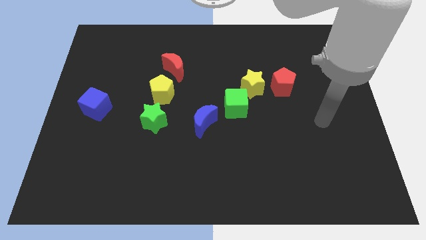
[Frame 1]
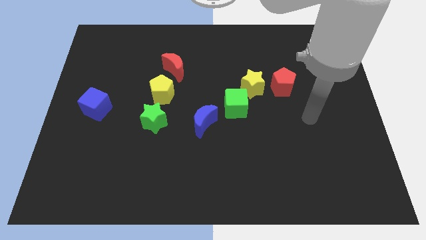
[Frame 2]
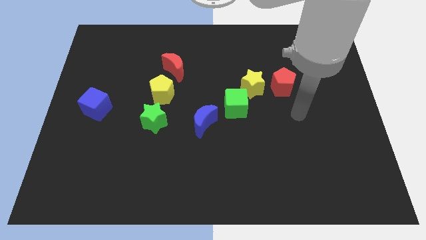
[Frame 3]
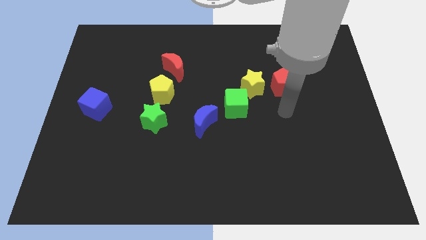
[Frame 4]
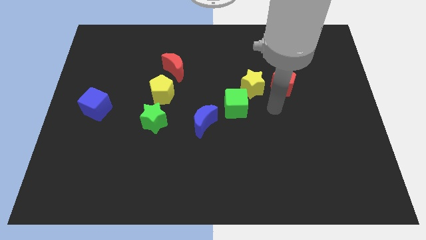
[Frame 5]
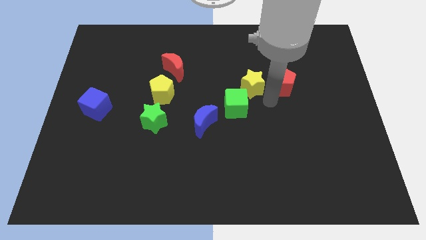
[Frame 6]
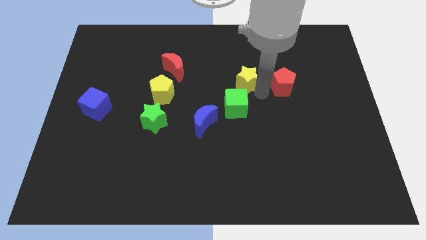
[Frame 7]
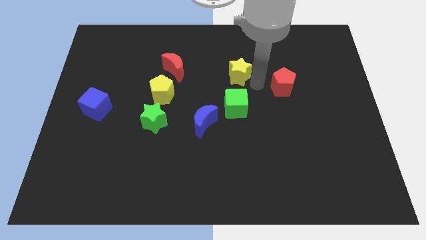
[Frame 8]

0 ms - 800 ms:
pull the red pentagon apart from the yellow star

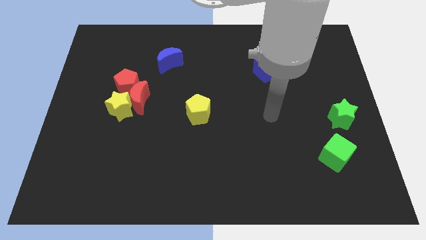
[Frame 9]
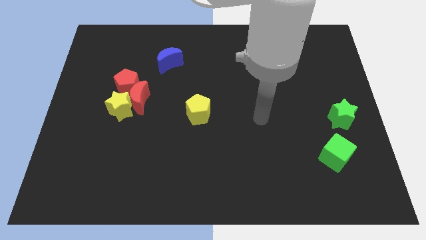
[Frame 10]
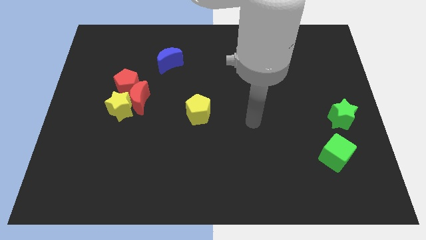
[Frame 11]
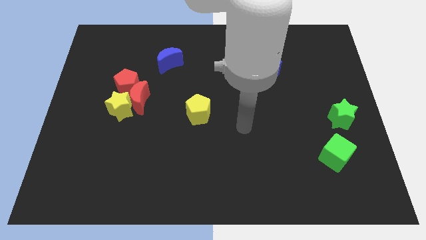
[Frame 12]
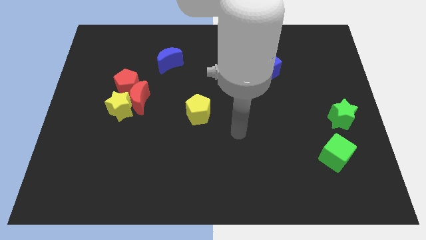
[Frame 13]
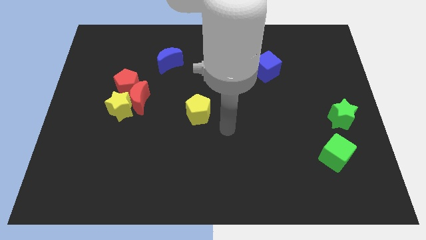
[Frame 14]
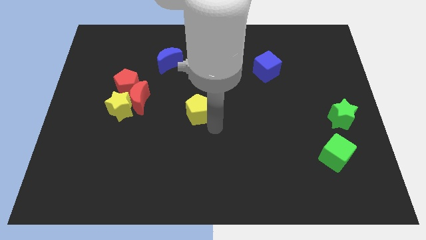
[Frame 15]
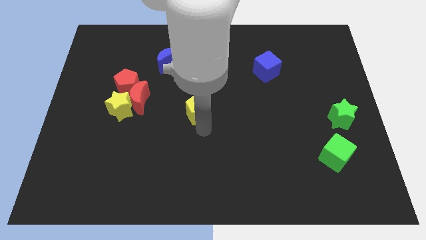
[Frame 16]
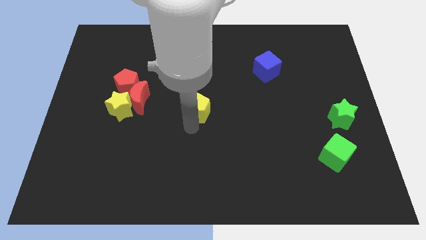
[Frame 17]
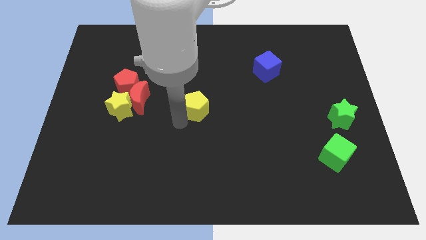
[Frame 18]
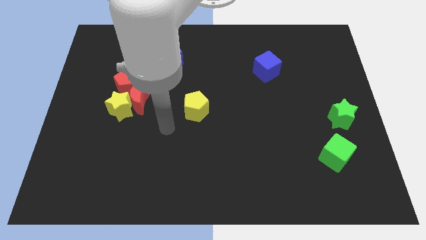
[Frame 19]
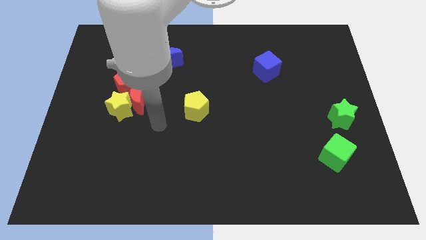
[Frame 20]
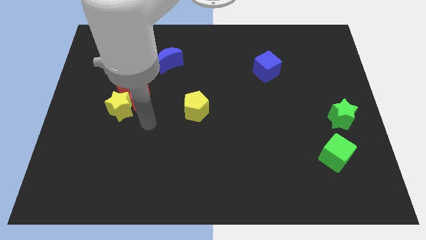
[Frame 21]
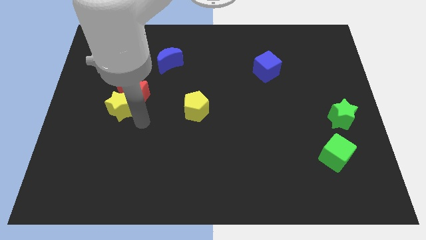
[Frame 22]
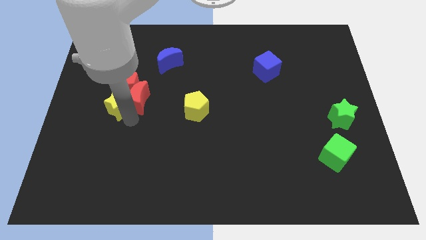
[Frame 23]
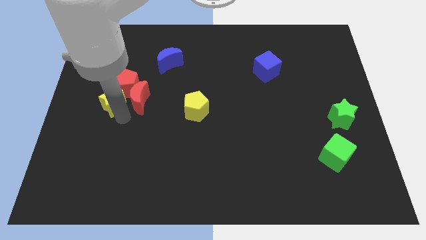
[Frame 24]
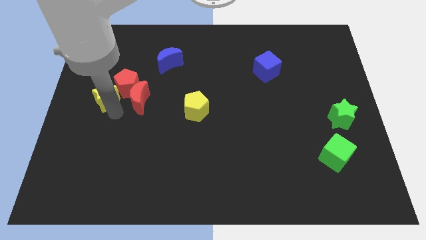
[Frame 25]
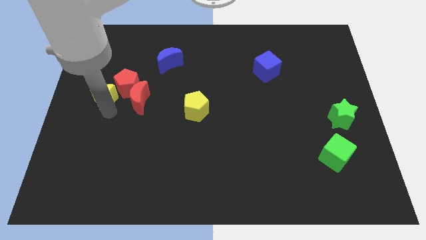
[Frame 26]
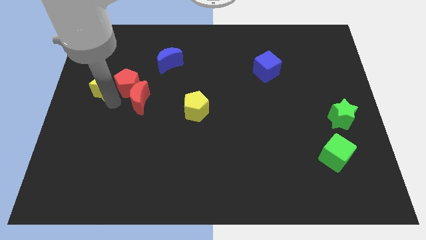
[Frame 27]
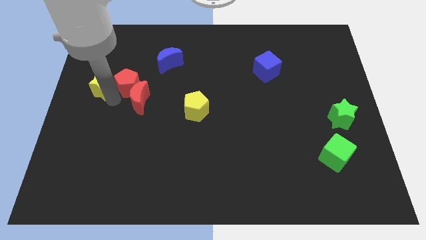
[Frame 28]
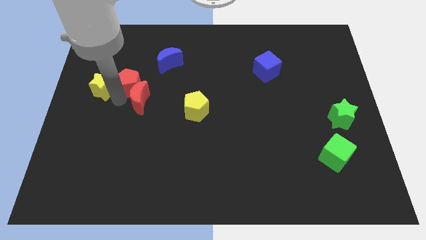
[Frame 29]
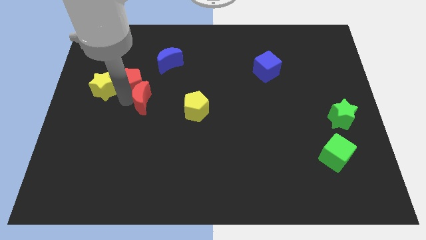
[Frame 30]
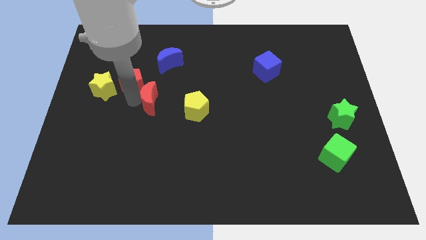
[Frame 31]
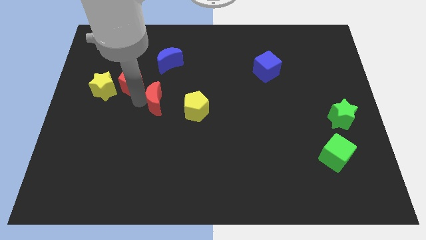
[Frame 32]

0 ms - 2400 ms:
separate the red moon from the yellow star and red pentagon

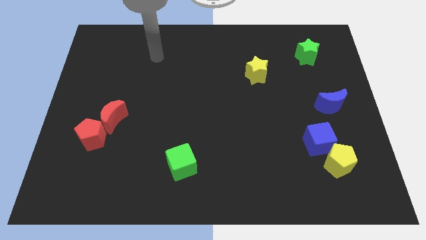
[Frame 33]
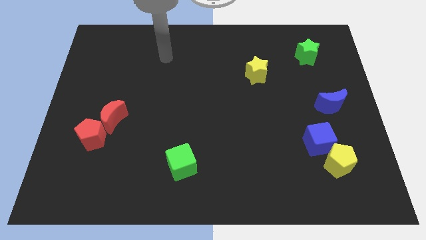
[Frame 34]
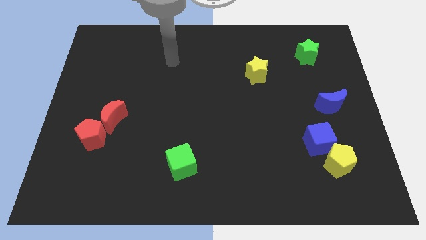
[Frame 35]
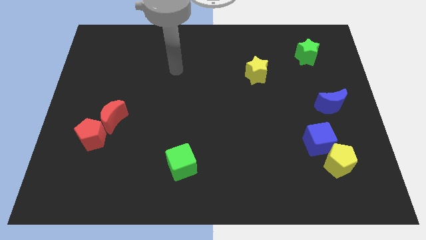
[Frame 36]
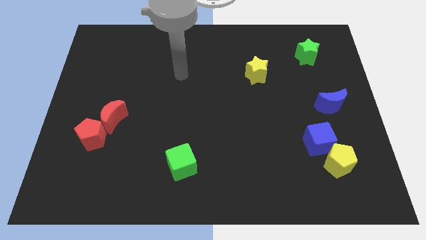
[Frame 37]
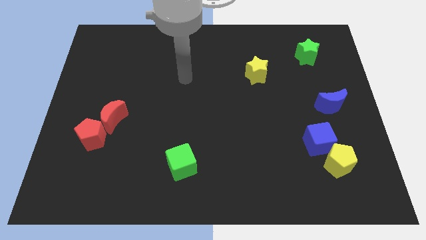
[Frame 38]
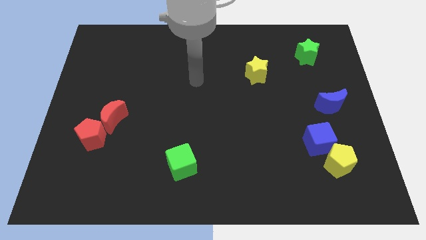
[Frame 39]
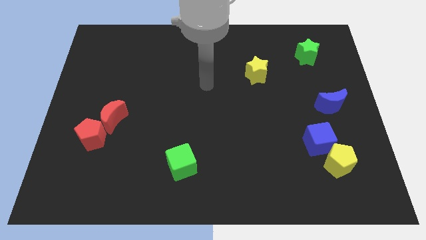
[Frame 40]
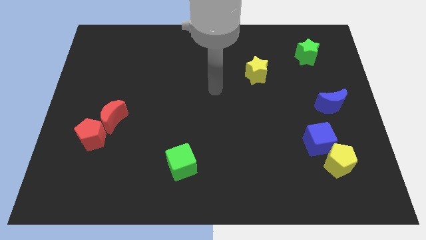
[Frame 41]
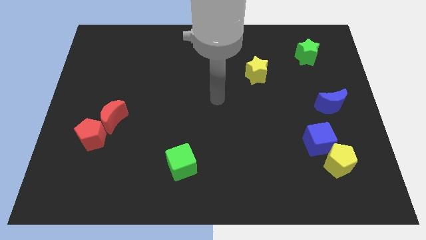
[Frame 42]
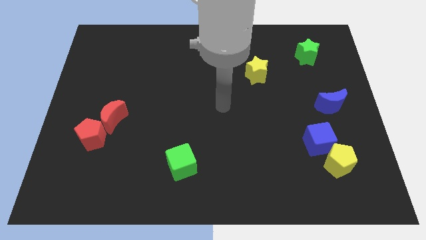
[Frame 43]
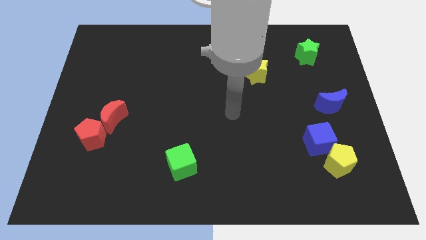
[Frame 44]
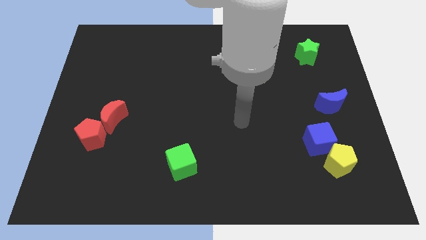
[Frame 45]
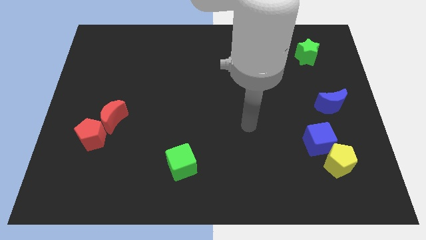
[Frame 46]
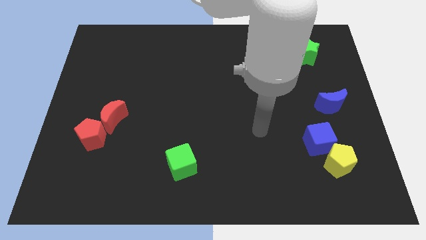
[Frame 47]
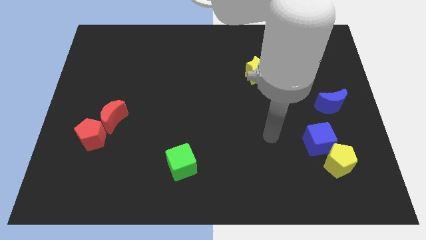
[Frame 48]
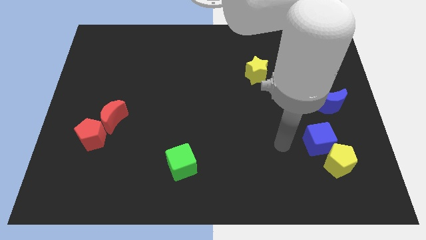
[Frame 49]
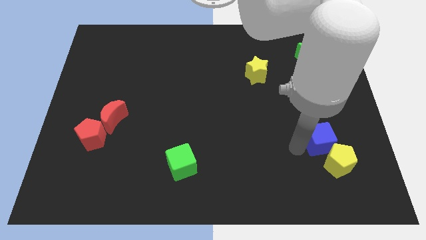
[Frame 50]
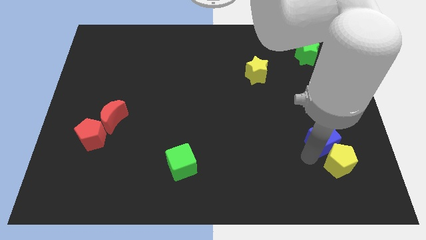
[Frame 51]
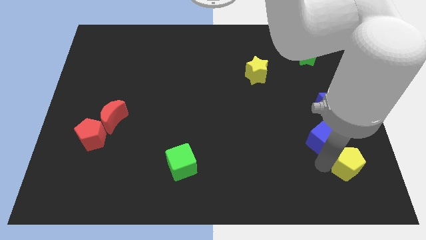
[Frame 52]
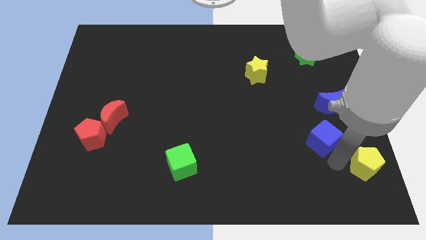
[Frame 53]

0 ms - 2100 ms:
move the blue cube away from the yellow pentagon

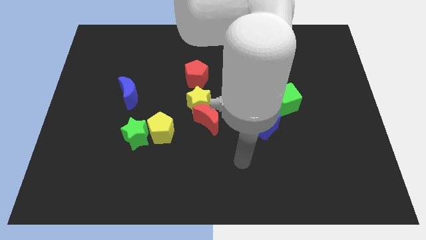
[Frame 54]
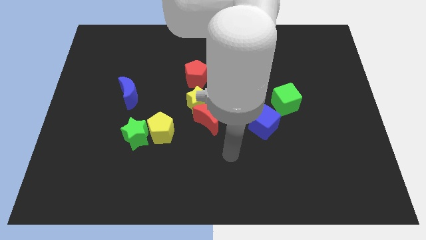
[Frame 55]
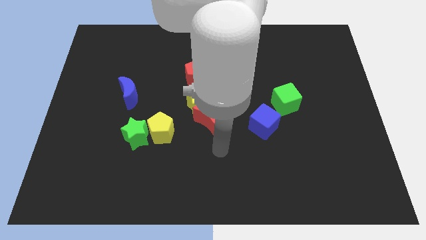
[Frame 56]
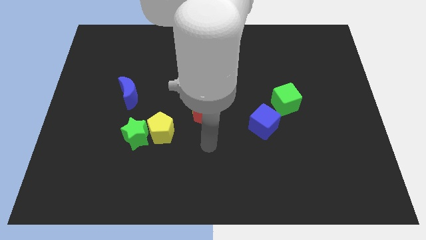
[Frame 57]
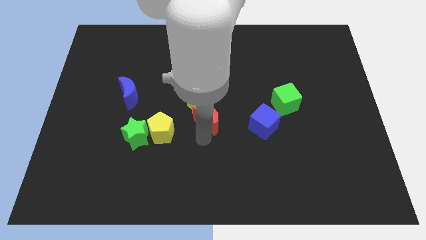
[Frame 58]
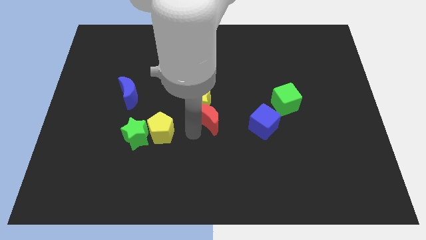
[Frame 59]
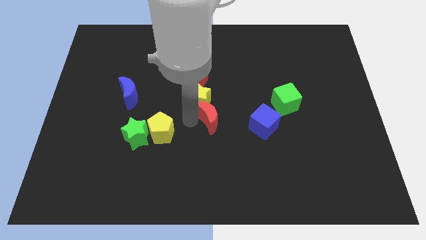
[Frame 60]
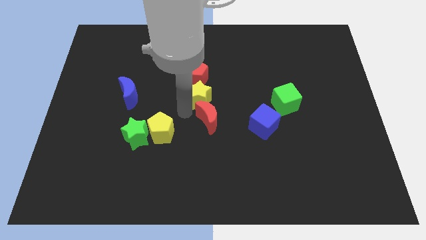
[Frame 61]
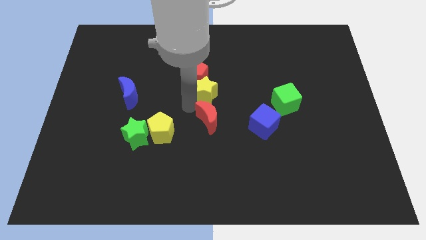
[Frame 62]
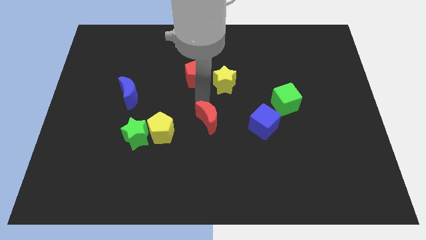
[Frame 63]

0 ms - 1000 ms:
separate the red moon from the yellow star

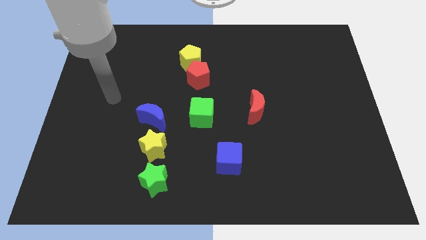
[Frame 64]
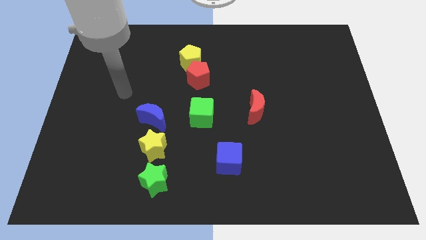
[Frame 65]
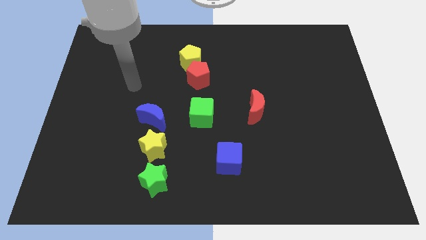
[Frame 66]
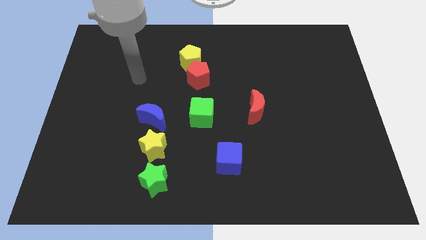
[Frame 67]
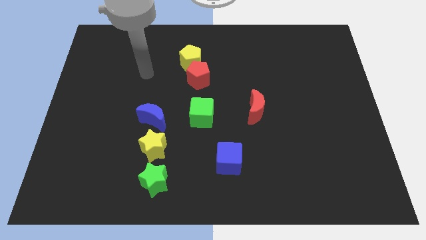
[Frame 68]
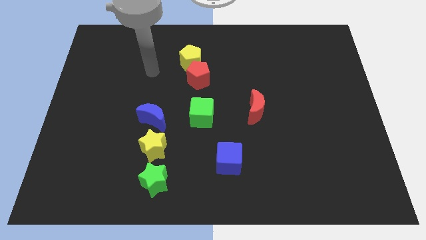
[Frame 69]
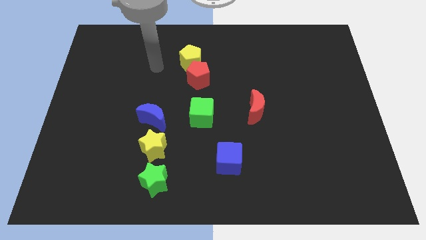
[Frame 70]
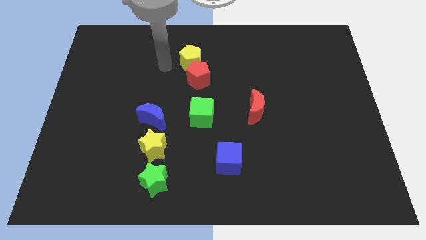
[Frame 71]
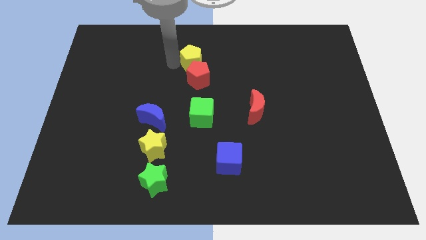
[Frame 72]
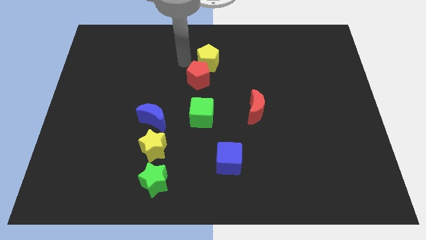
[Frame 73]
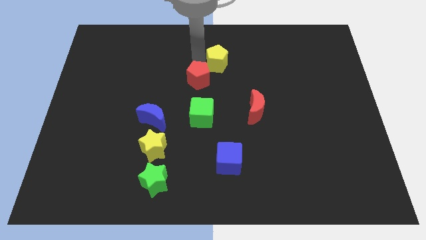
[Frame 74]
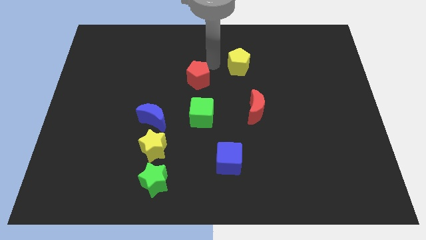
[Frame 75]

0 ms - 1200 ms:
separate the red pentagon from the yellow pentagon

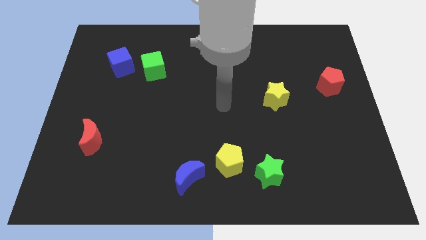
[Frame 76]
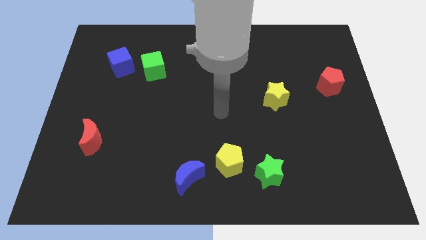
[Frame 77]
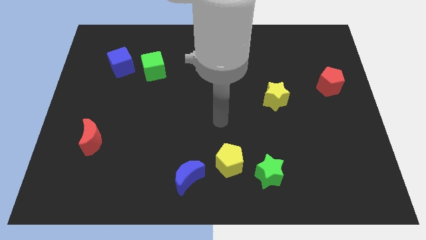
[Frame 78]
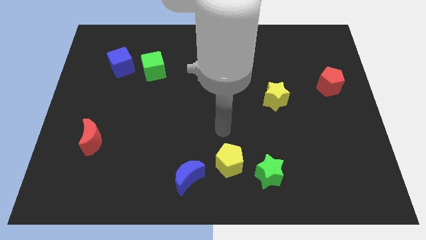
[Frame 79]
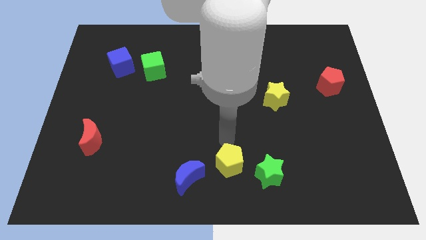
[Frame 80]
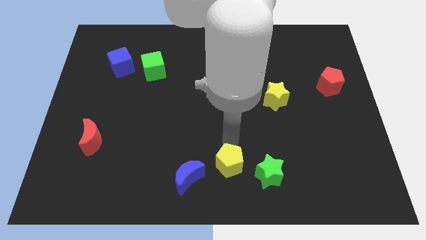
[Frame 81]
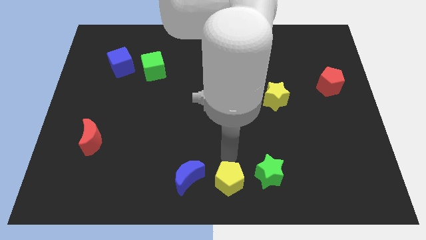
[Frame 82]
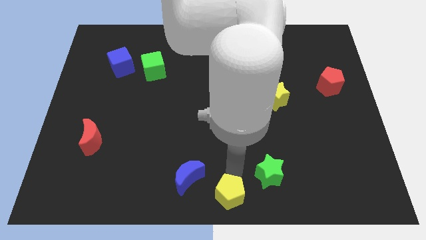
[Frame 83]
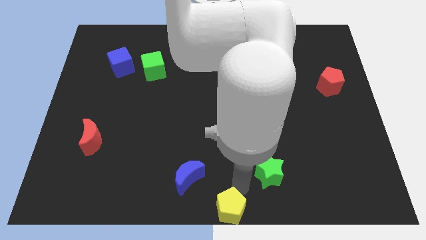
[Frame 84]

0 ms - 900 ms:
pull the green star apart from the yellow pentagon

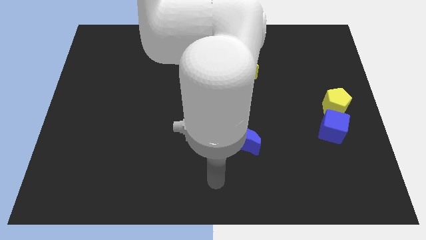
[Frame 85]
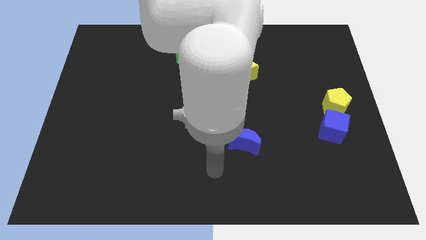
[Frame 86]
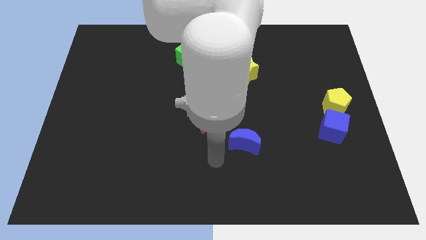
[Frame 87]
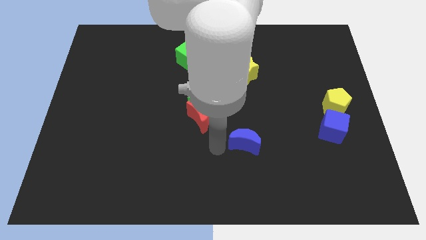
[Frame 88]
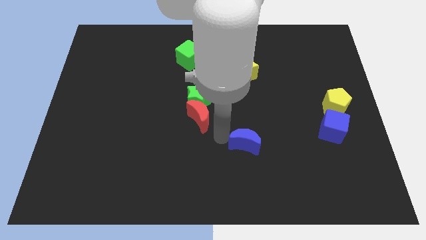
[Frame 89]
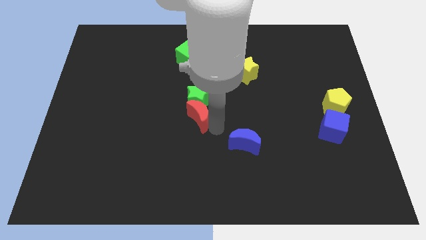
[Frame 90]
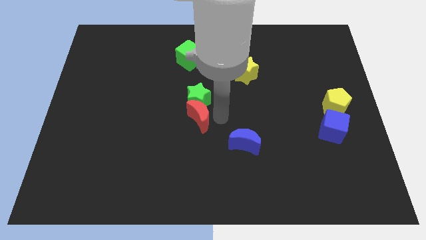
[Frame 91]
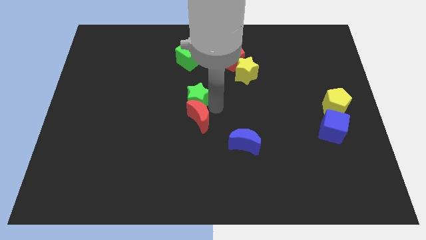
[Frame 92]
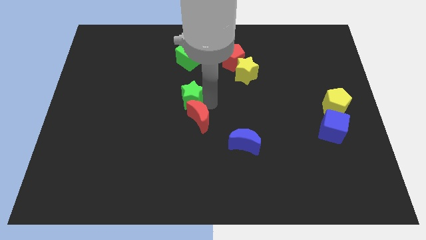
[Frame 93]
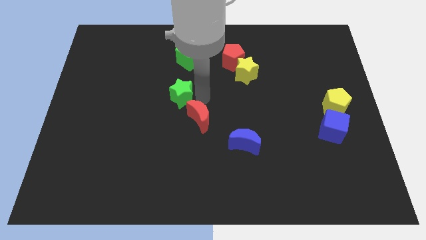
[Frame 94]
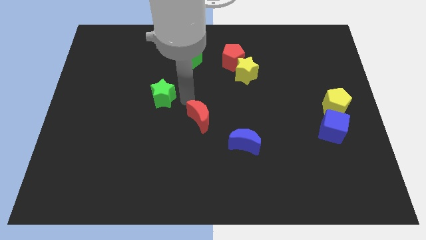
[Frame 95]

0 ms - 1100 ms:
separate the red moon from the green star
